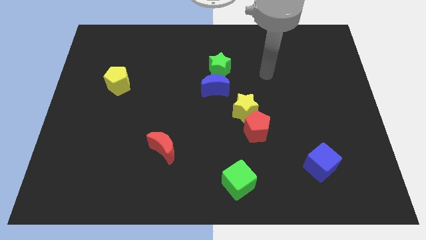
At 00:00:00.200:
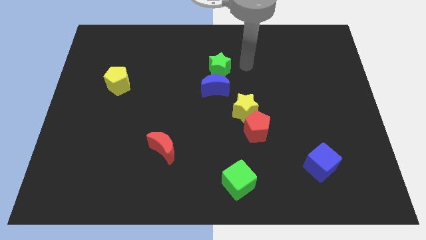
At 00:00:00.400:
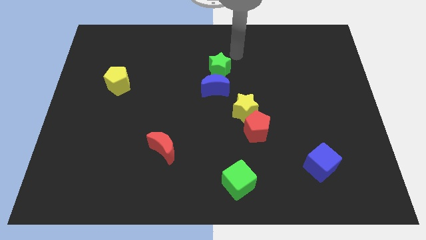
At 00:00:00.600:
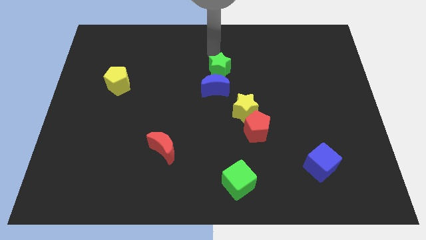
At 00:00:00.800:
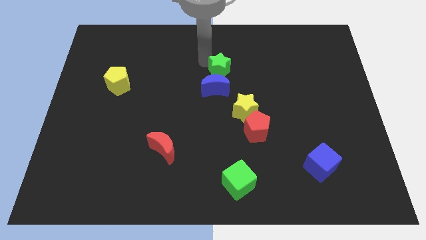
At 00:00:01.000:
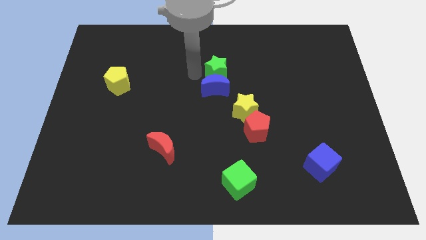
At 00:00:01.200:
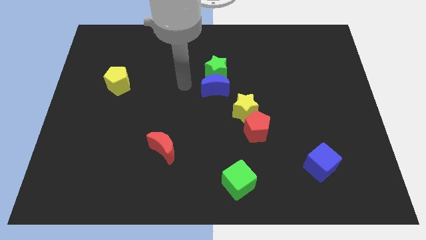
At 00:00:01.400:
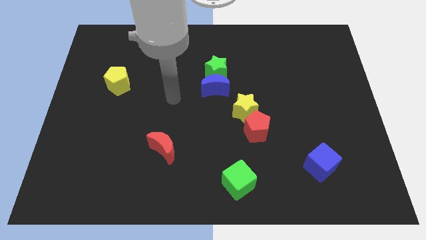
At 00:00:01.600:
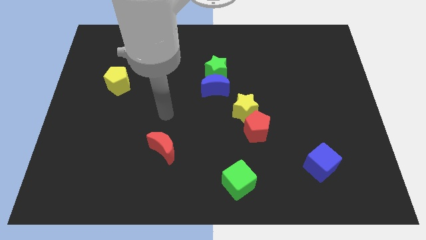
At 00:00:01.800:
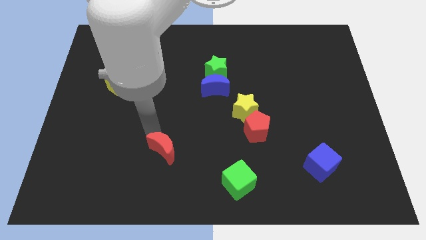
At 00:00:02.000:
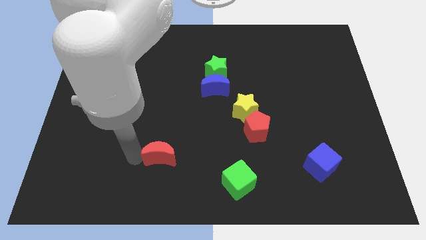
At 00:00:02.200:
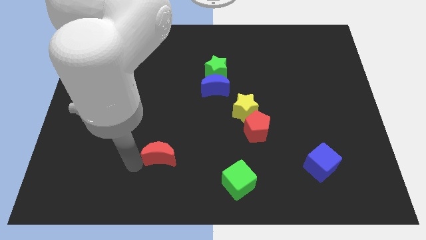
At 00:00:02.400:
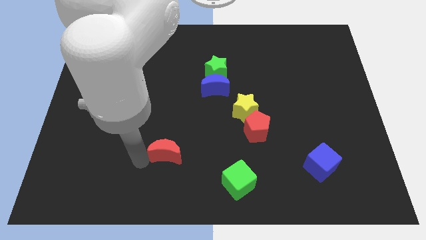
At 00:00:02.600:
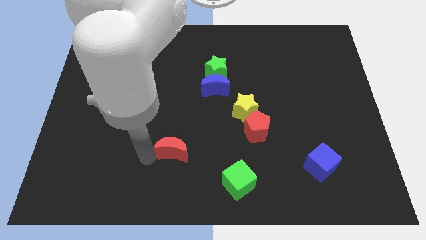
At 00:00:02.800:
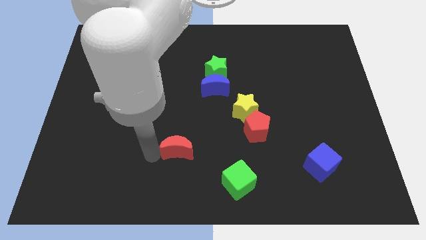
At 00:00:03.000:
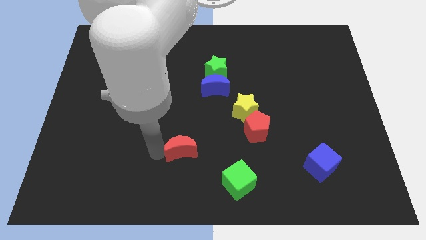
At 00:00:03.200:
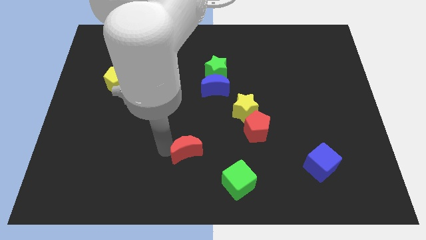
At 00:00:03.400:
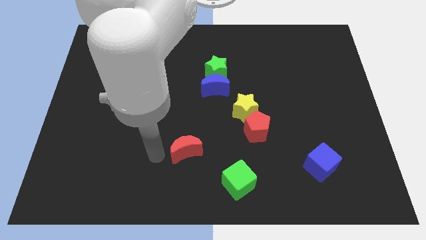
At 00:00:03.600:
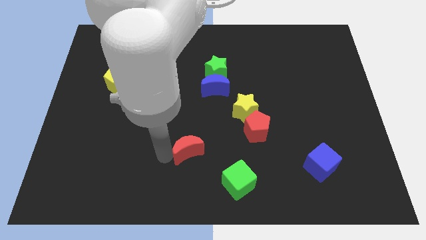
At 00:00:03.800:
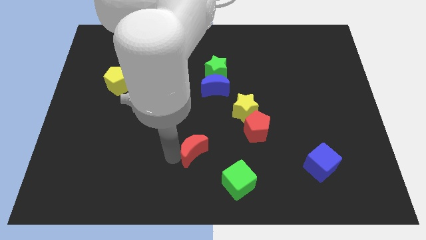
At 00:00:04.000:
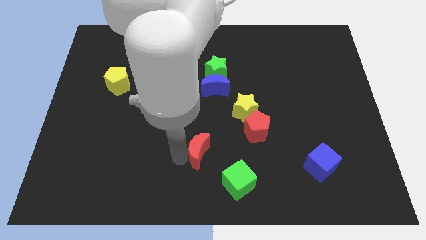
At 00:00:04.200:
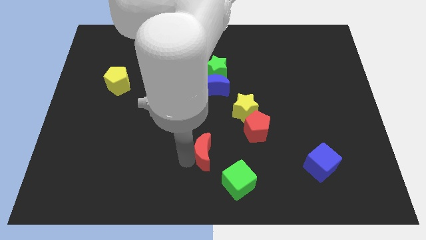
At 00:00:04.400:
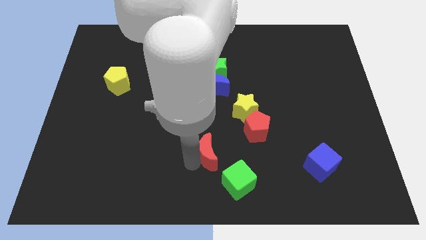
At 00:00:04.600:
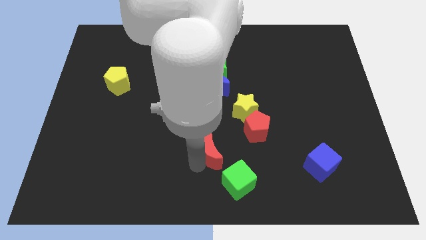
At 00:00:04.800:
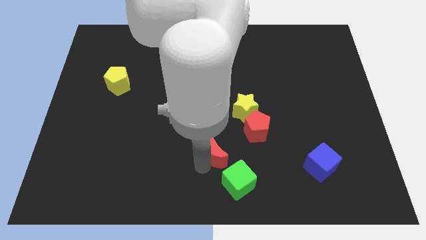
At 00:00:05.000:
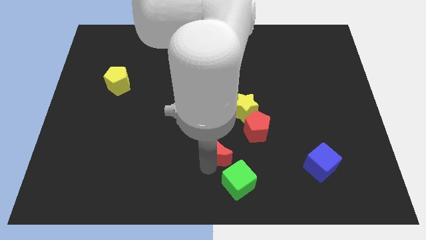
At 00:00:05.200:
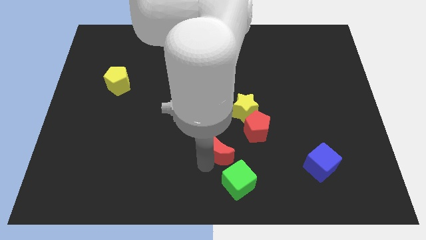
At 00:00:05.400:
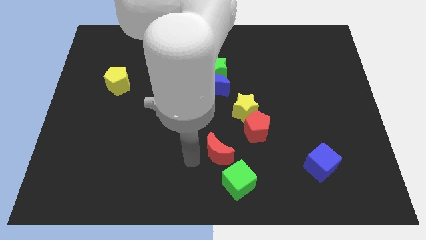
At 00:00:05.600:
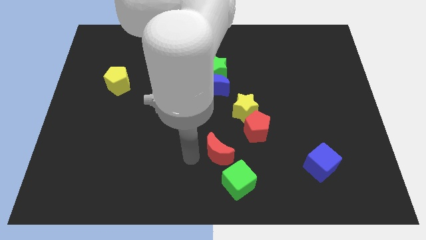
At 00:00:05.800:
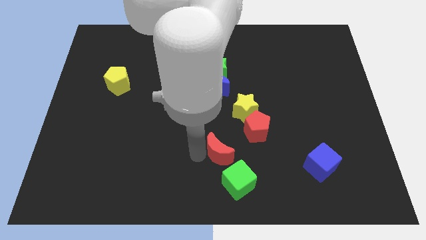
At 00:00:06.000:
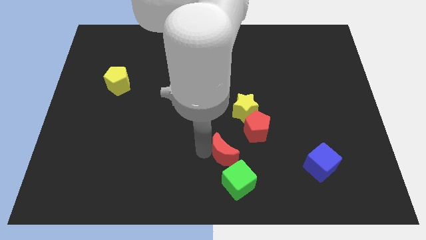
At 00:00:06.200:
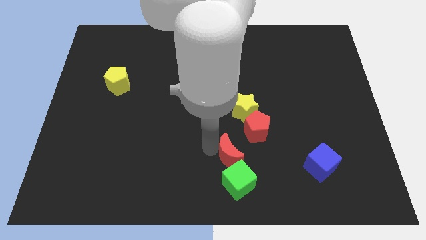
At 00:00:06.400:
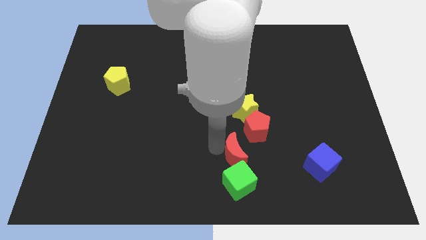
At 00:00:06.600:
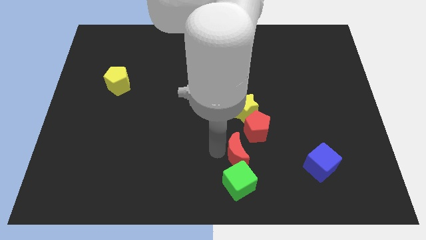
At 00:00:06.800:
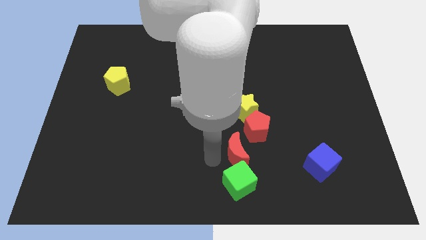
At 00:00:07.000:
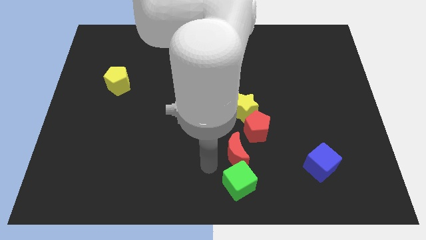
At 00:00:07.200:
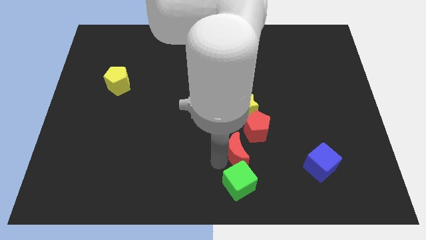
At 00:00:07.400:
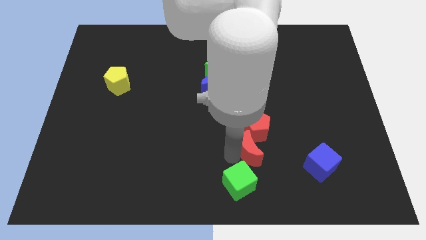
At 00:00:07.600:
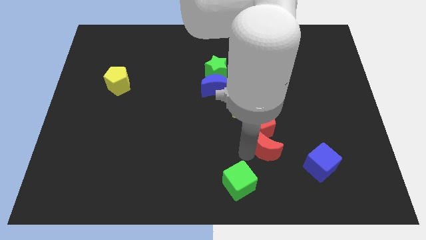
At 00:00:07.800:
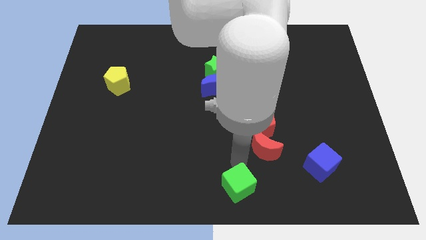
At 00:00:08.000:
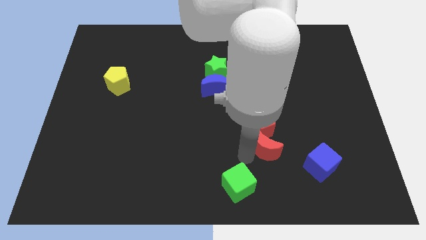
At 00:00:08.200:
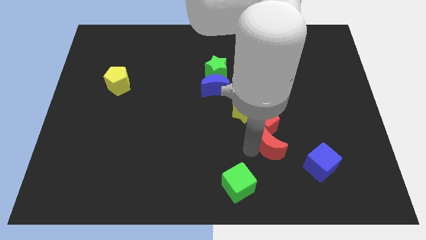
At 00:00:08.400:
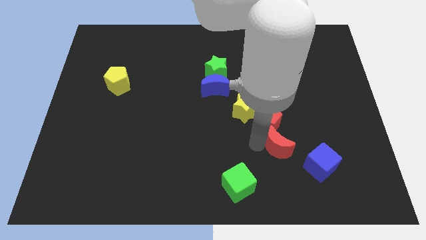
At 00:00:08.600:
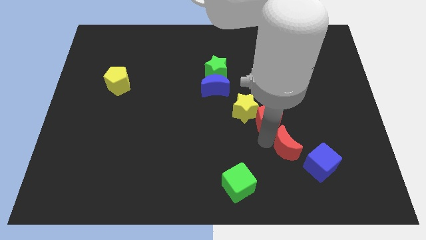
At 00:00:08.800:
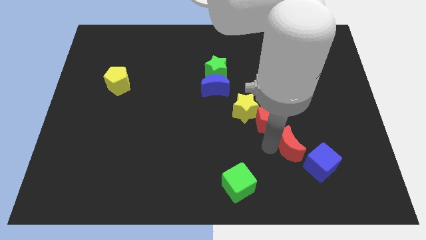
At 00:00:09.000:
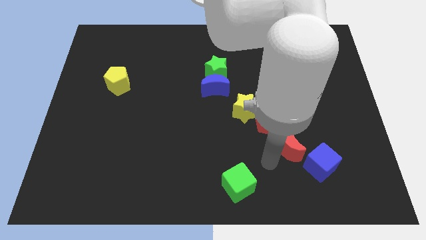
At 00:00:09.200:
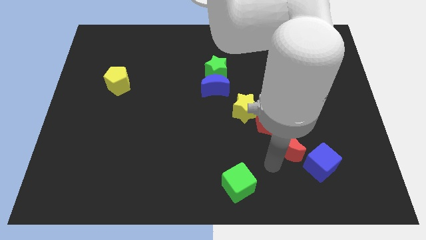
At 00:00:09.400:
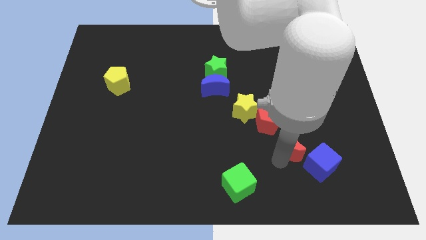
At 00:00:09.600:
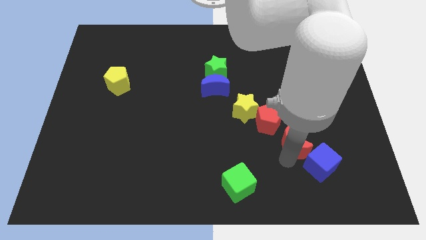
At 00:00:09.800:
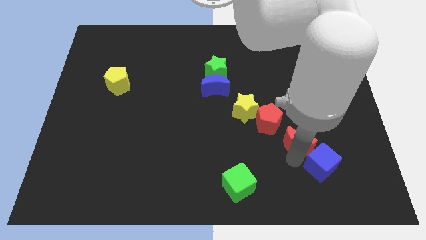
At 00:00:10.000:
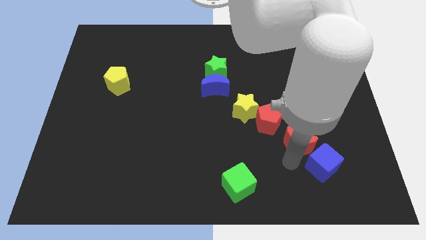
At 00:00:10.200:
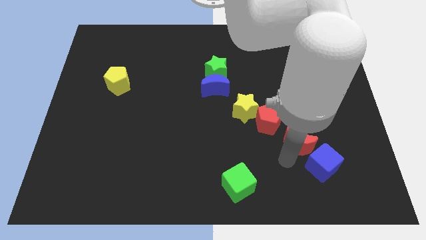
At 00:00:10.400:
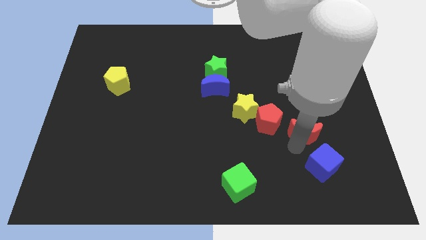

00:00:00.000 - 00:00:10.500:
push the red moon to the right side of the red pentagon

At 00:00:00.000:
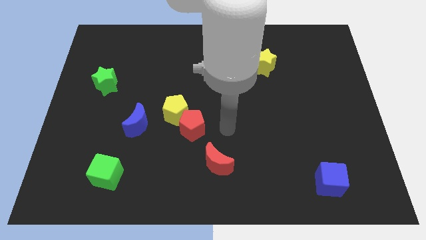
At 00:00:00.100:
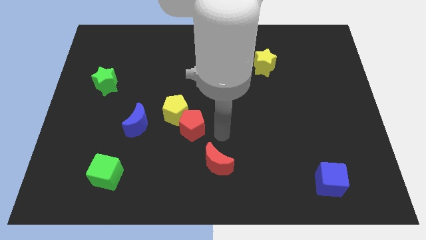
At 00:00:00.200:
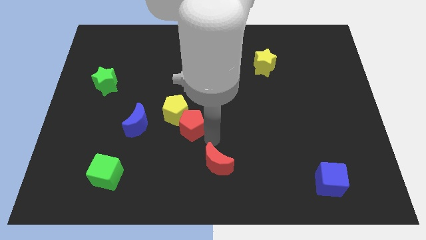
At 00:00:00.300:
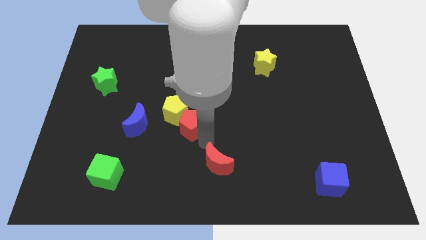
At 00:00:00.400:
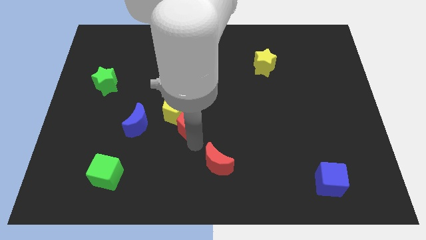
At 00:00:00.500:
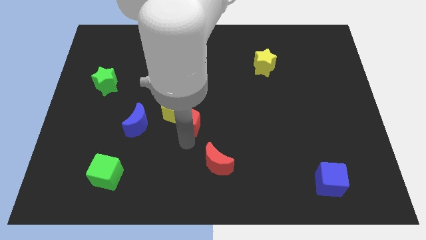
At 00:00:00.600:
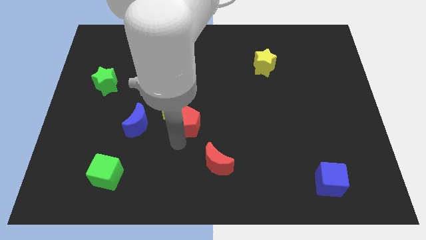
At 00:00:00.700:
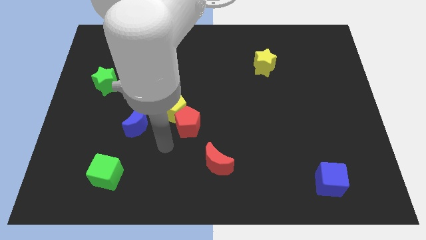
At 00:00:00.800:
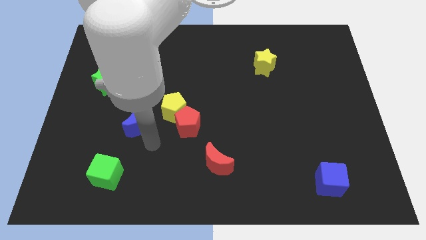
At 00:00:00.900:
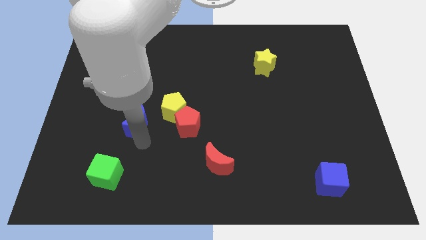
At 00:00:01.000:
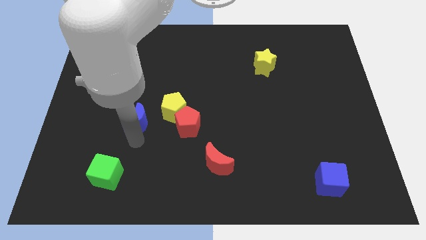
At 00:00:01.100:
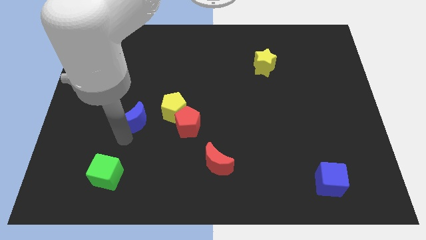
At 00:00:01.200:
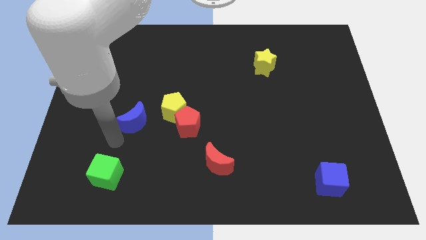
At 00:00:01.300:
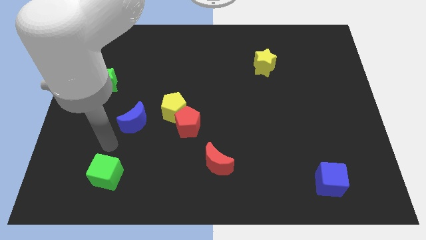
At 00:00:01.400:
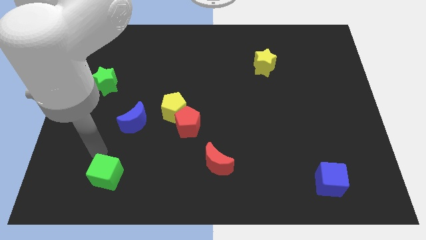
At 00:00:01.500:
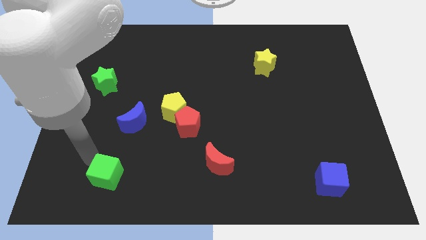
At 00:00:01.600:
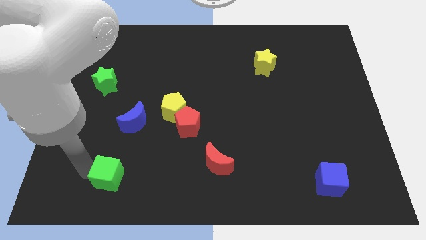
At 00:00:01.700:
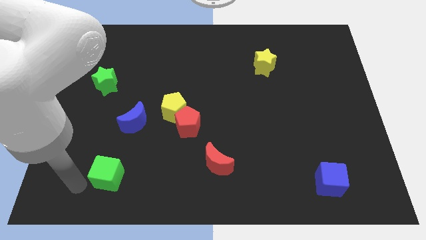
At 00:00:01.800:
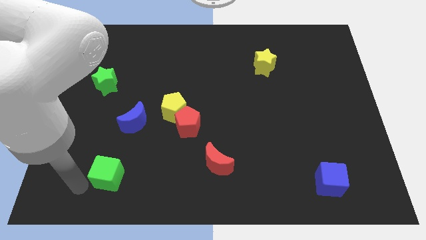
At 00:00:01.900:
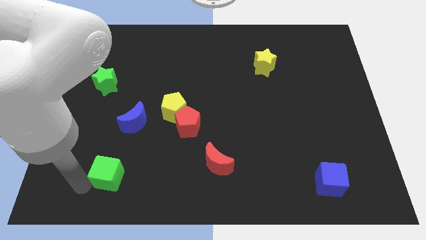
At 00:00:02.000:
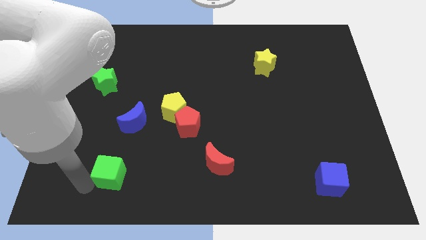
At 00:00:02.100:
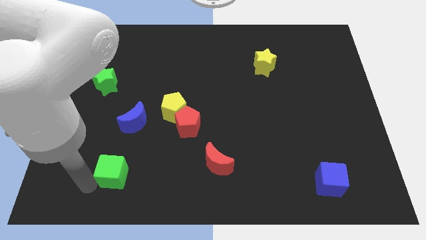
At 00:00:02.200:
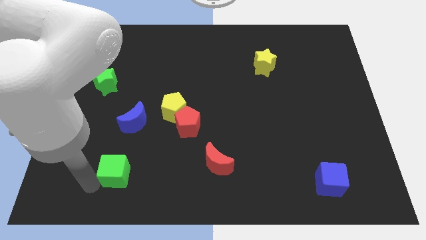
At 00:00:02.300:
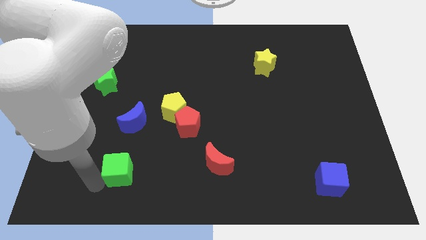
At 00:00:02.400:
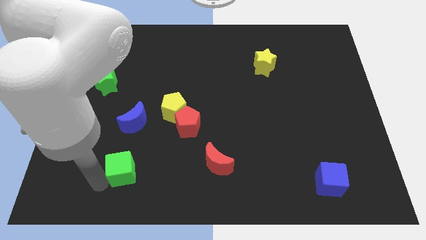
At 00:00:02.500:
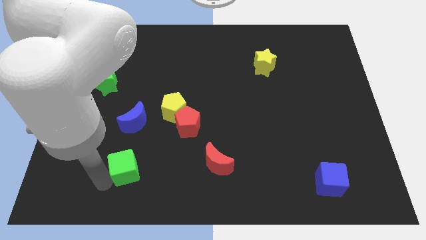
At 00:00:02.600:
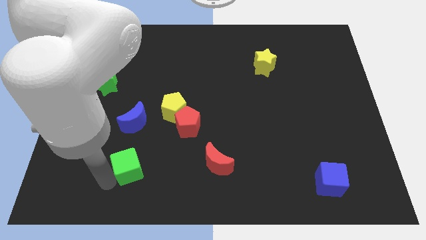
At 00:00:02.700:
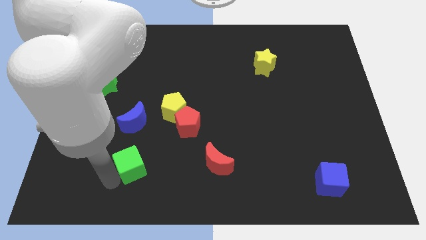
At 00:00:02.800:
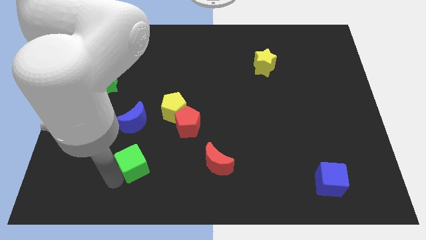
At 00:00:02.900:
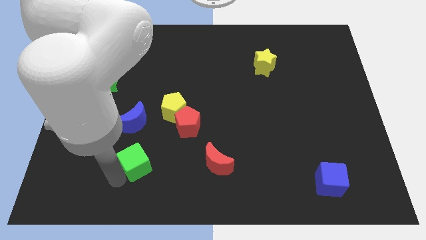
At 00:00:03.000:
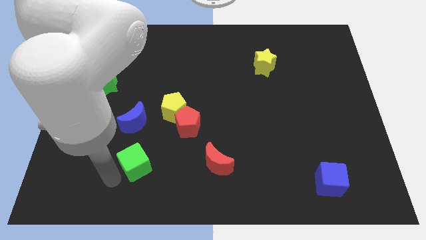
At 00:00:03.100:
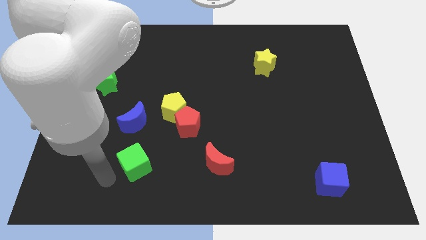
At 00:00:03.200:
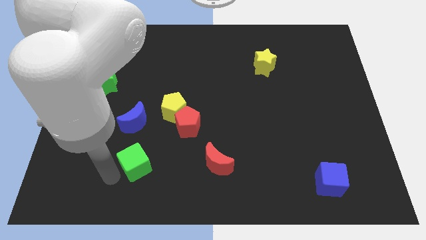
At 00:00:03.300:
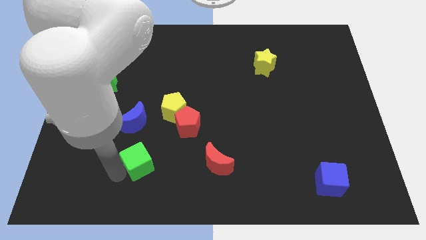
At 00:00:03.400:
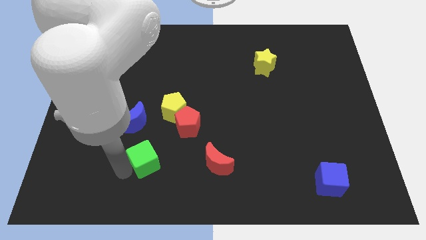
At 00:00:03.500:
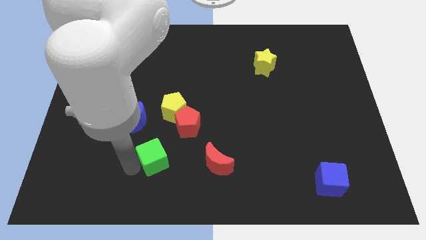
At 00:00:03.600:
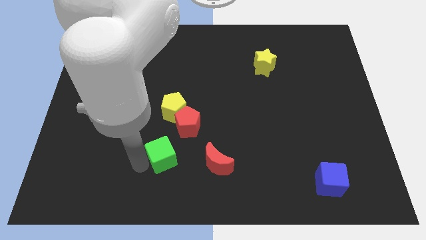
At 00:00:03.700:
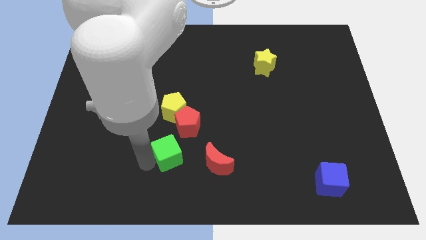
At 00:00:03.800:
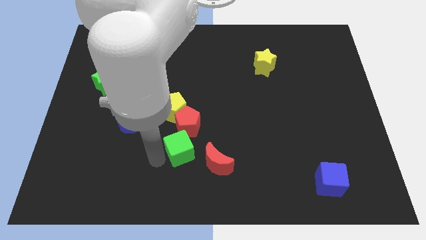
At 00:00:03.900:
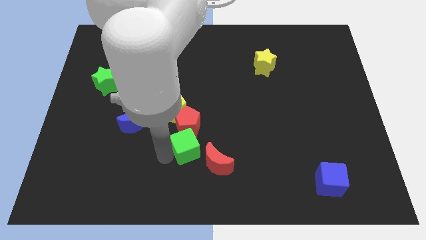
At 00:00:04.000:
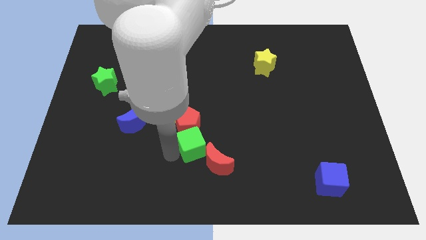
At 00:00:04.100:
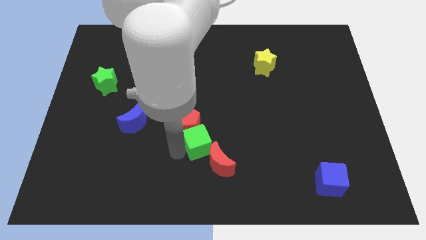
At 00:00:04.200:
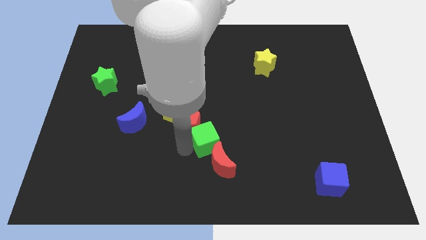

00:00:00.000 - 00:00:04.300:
slide the green cube to the right side of the red pentagon
